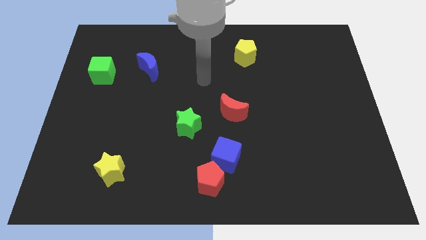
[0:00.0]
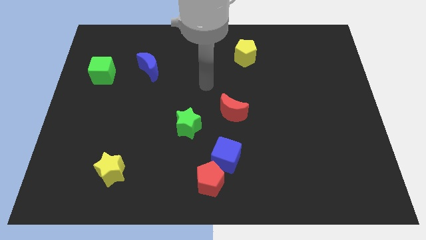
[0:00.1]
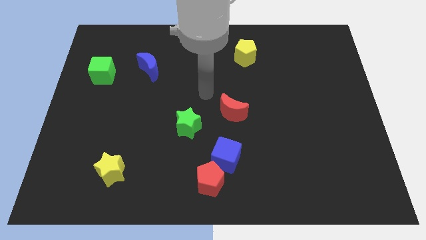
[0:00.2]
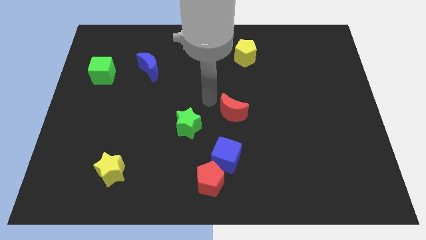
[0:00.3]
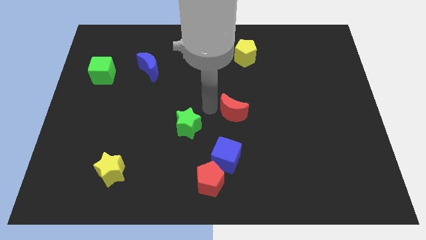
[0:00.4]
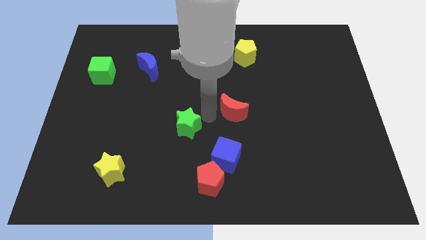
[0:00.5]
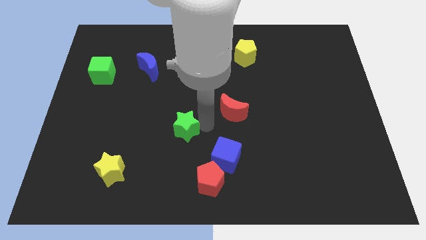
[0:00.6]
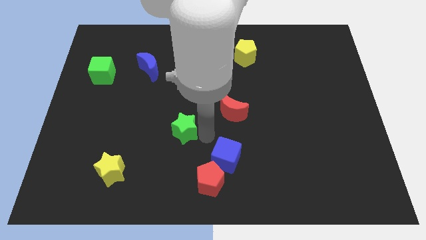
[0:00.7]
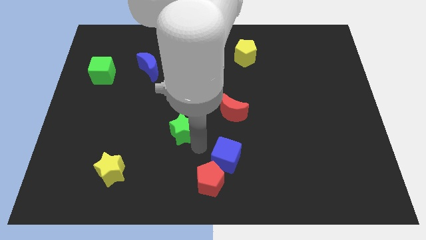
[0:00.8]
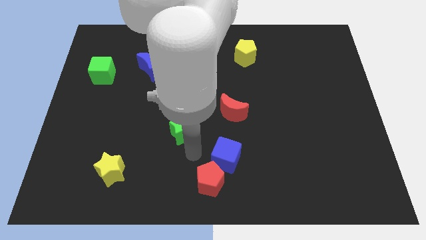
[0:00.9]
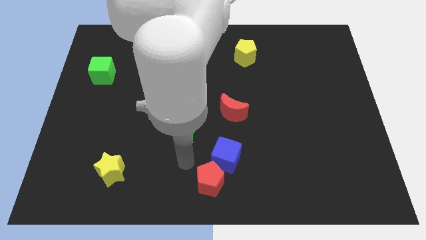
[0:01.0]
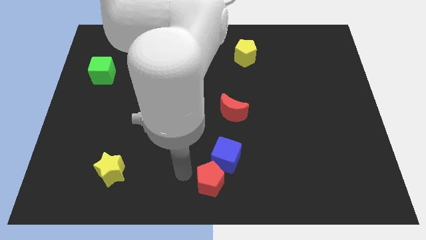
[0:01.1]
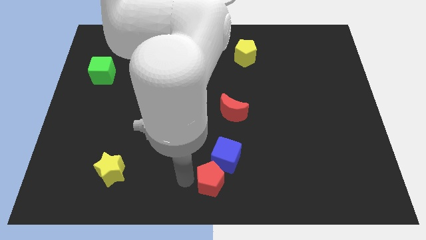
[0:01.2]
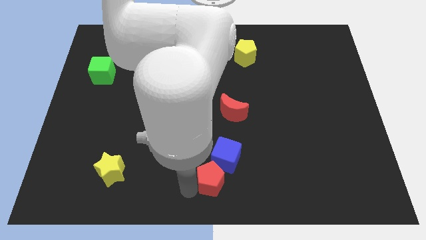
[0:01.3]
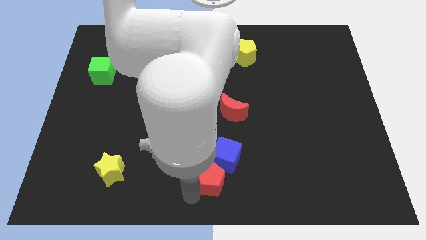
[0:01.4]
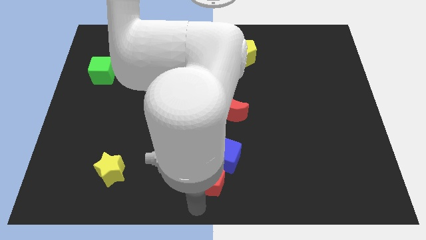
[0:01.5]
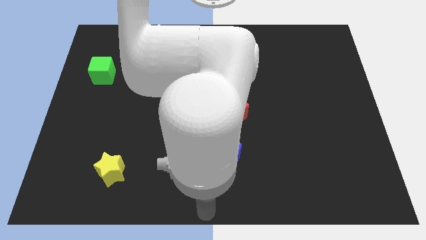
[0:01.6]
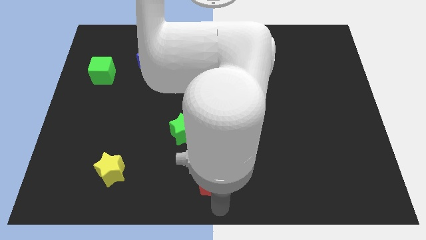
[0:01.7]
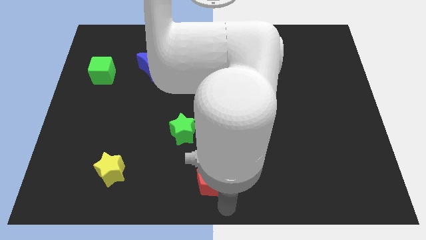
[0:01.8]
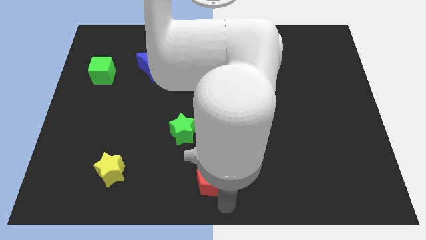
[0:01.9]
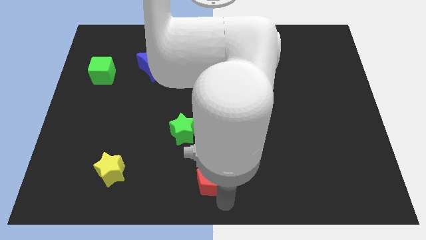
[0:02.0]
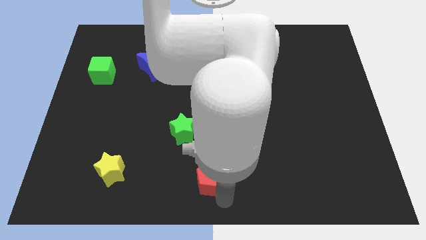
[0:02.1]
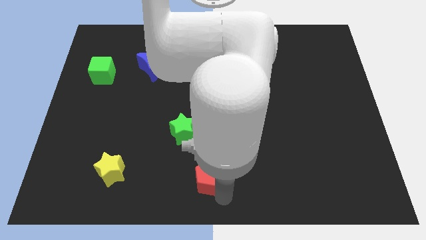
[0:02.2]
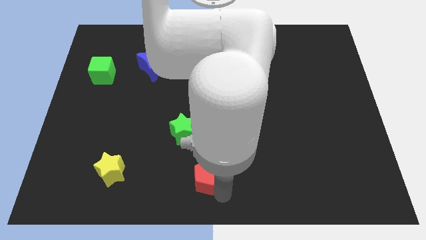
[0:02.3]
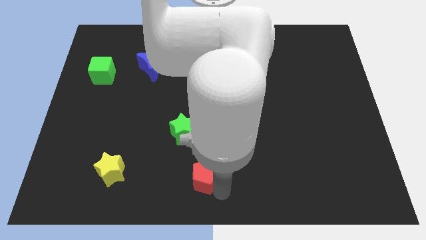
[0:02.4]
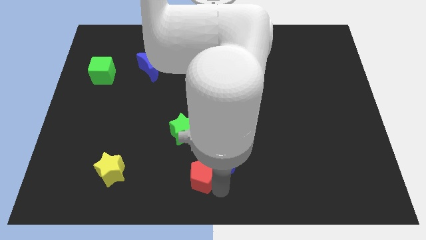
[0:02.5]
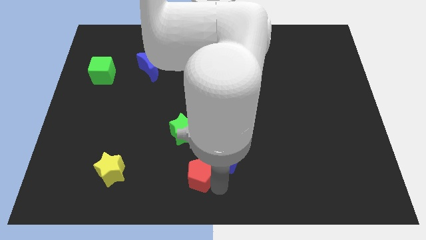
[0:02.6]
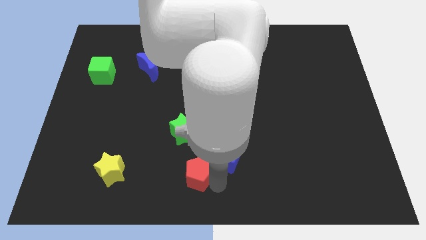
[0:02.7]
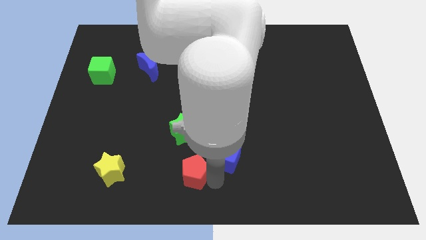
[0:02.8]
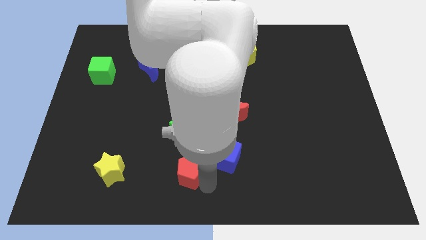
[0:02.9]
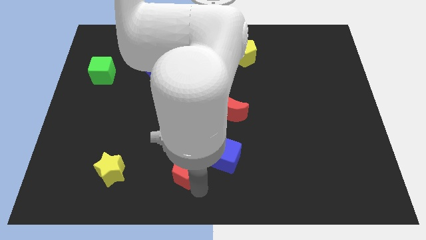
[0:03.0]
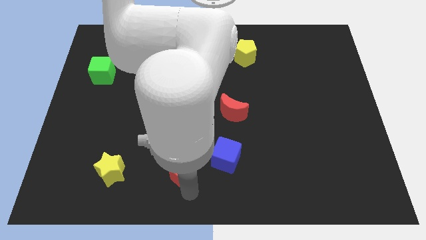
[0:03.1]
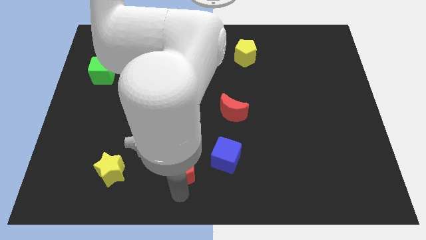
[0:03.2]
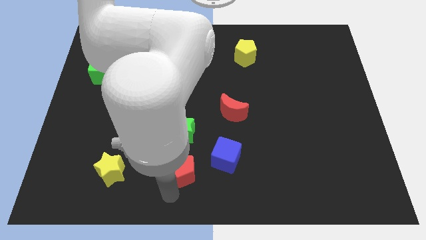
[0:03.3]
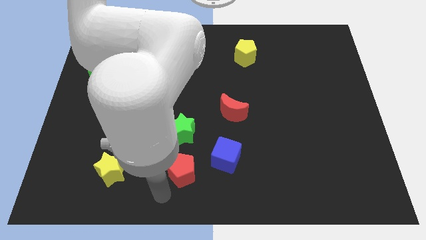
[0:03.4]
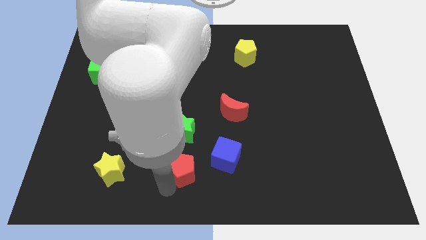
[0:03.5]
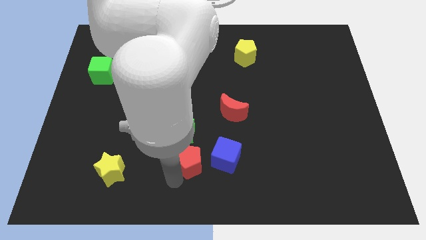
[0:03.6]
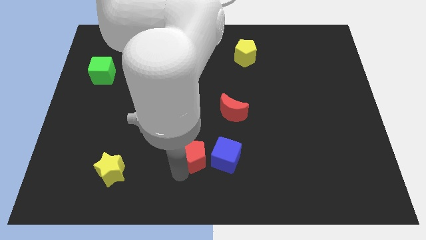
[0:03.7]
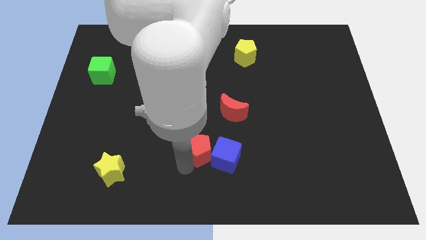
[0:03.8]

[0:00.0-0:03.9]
push the red pentagon a little up

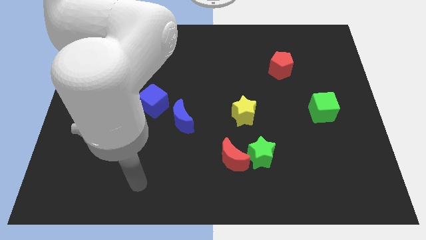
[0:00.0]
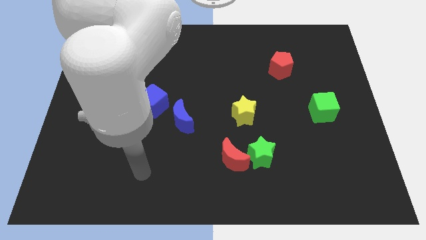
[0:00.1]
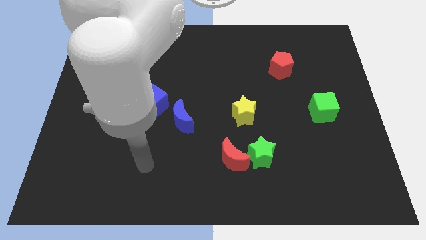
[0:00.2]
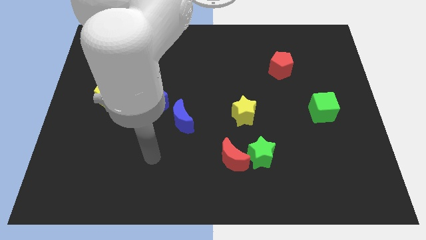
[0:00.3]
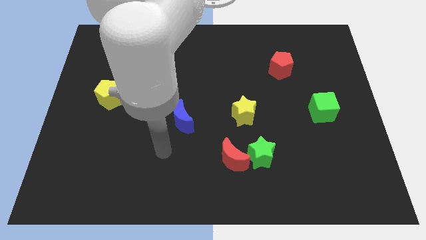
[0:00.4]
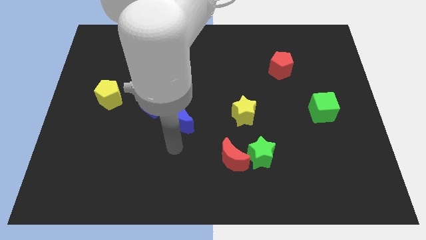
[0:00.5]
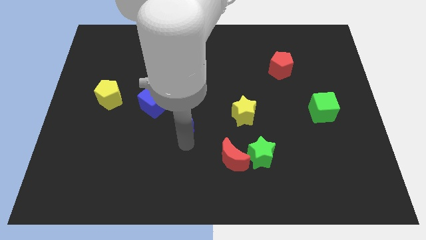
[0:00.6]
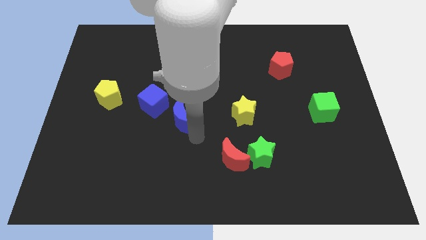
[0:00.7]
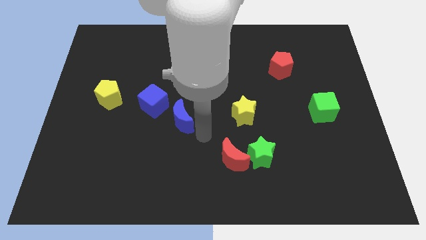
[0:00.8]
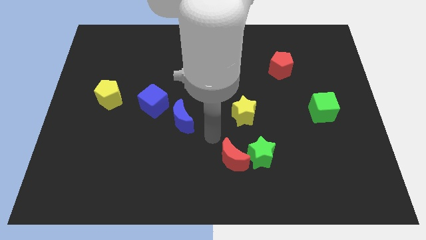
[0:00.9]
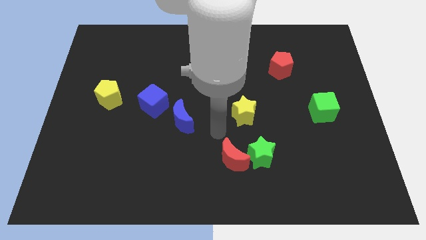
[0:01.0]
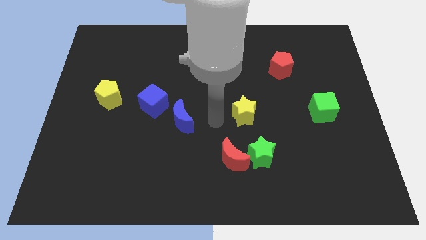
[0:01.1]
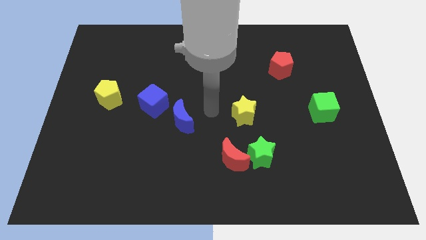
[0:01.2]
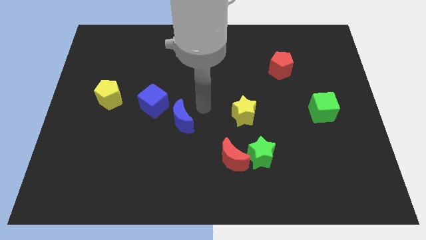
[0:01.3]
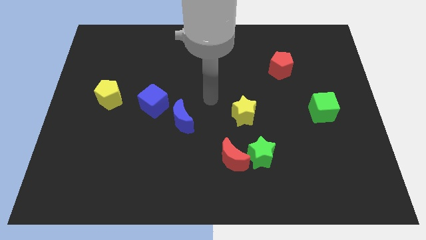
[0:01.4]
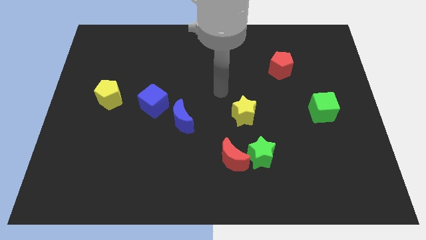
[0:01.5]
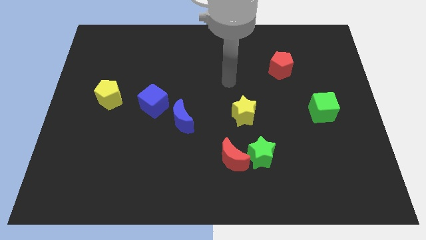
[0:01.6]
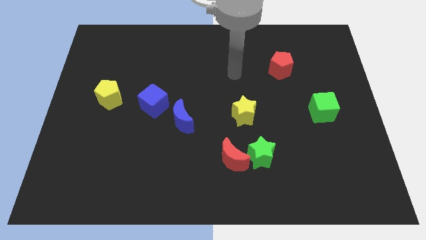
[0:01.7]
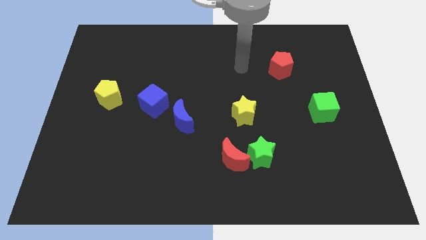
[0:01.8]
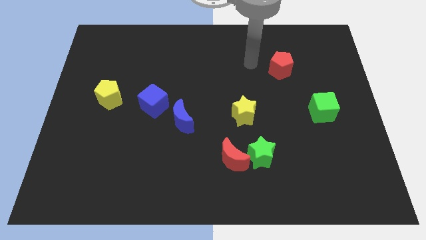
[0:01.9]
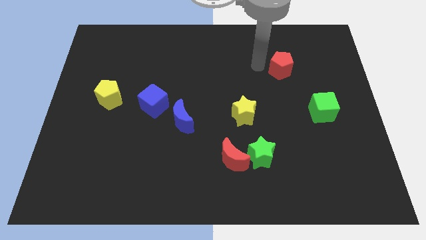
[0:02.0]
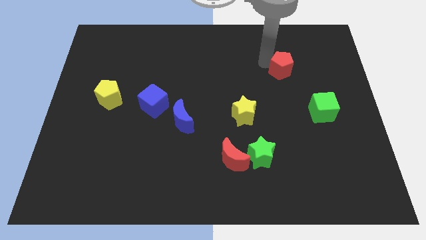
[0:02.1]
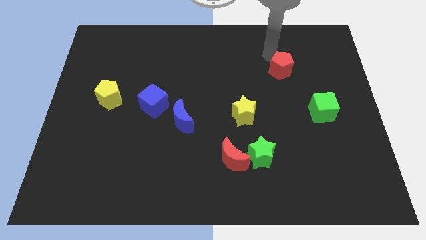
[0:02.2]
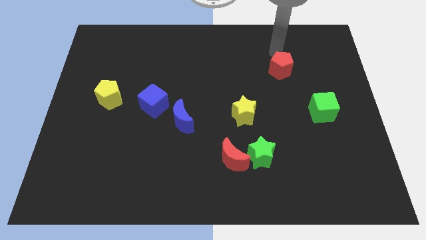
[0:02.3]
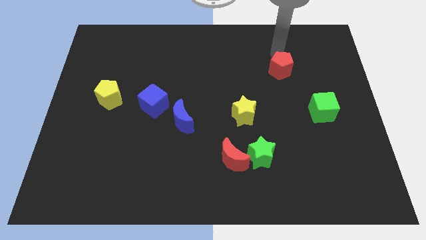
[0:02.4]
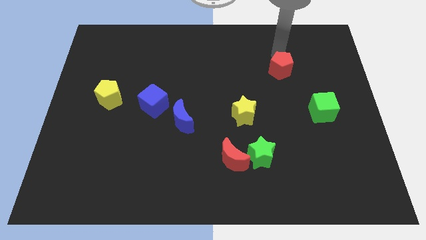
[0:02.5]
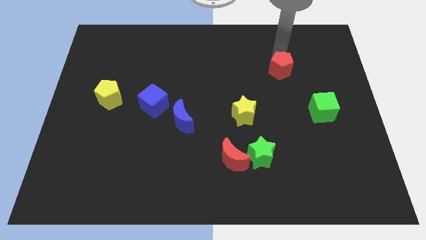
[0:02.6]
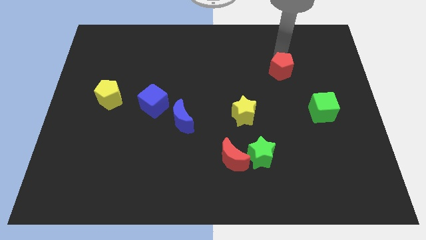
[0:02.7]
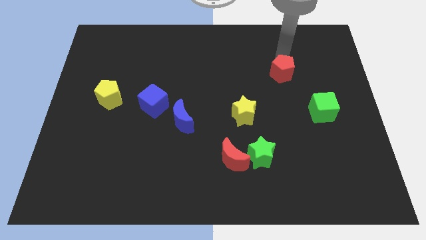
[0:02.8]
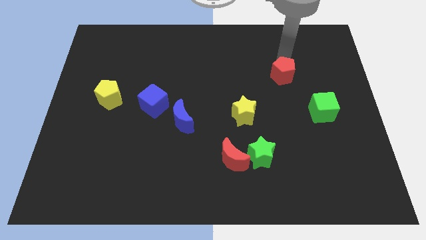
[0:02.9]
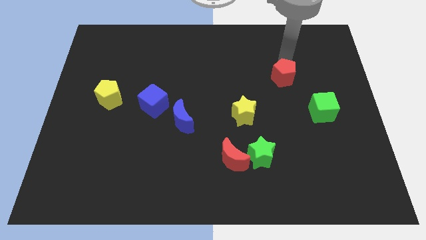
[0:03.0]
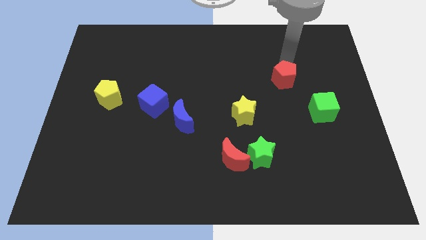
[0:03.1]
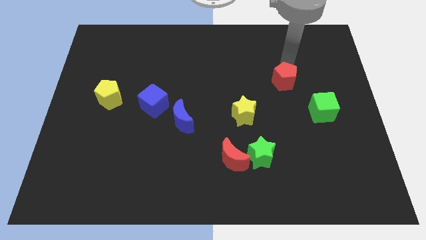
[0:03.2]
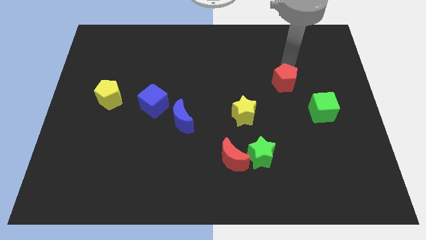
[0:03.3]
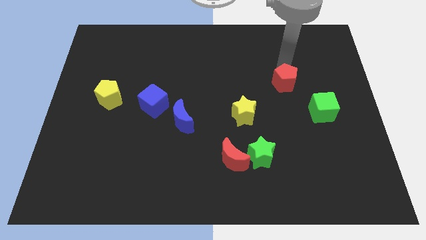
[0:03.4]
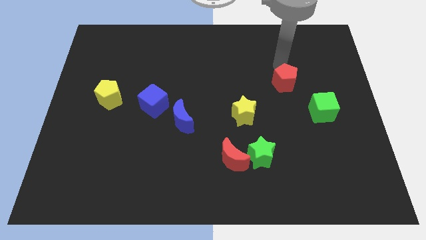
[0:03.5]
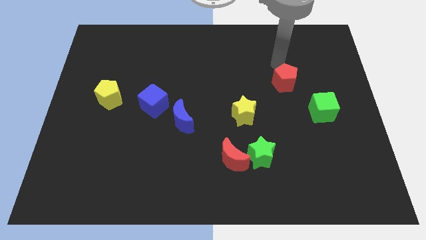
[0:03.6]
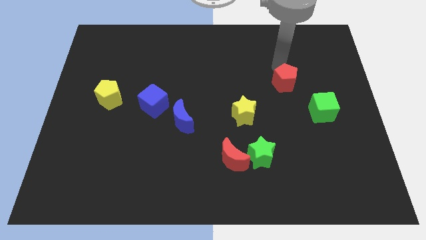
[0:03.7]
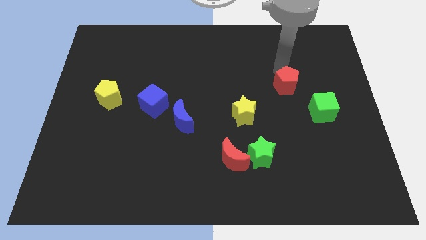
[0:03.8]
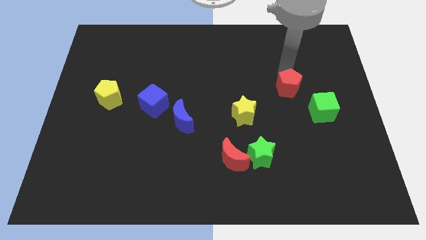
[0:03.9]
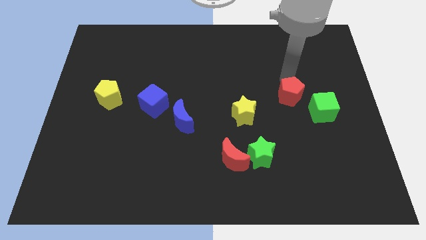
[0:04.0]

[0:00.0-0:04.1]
push the red pentagon downwards somewhat

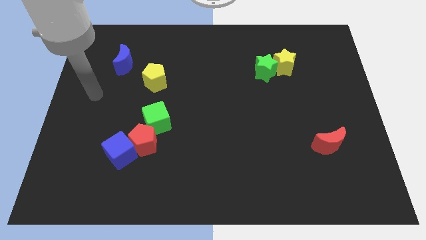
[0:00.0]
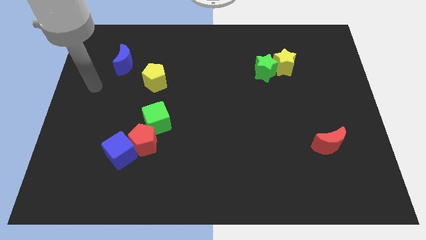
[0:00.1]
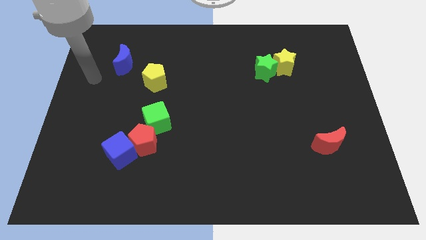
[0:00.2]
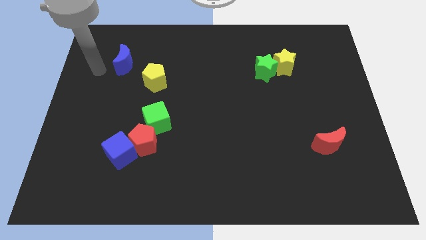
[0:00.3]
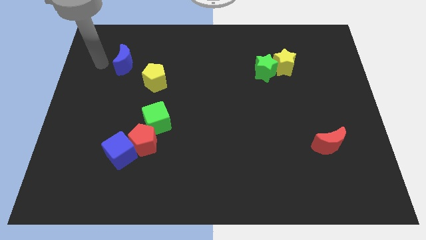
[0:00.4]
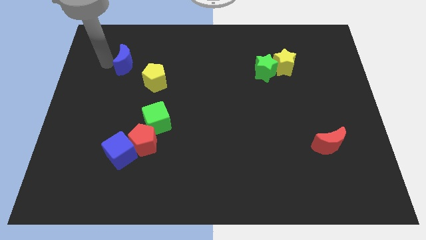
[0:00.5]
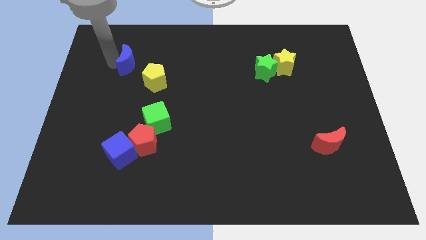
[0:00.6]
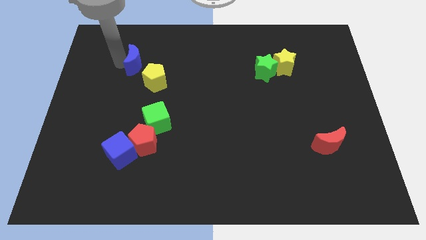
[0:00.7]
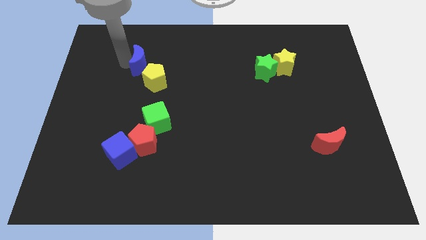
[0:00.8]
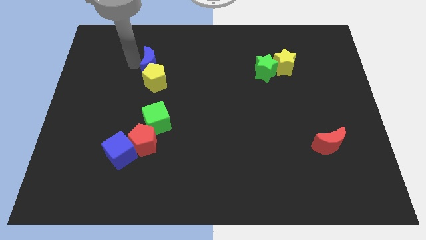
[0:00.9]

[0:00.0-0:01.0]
slide the blue moon a bit to the right
